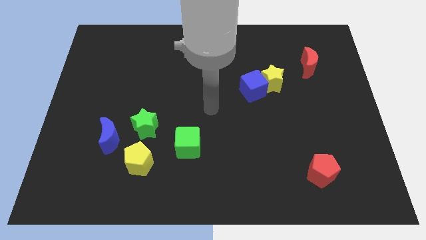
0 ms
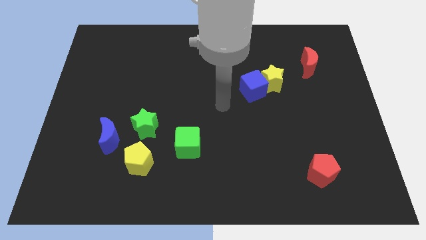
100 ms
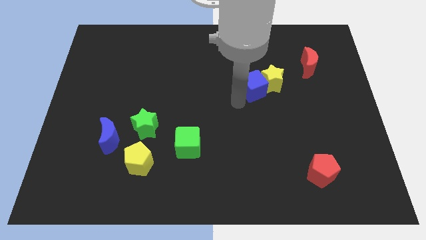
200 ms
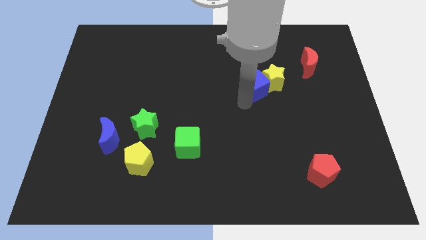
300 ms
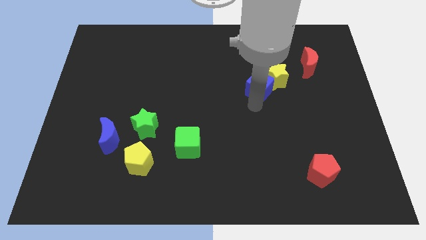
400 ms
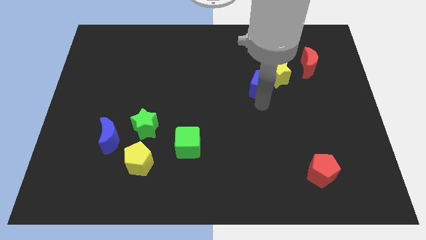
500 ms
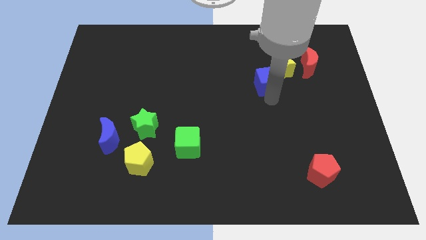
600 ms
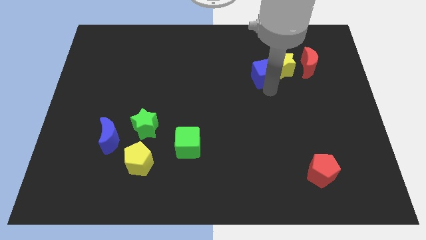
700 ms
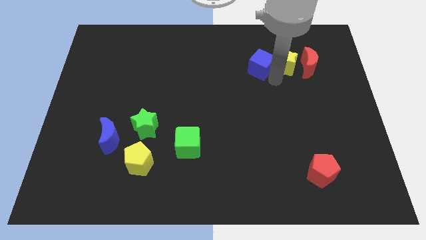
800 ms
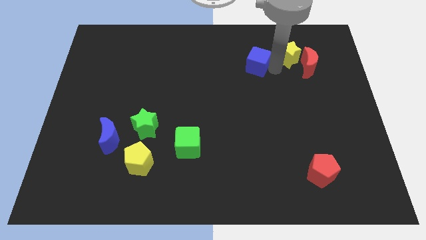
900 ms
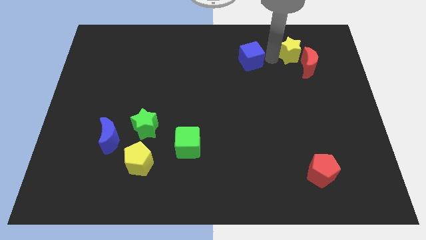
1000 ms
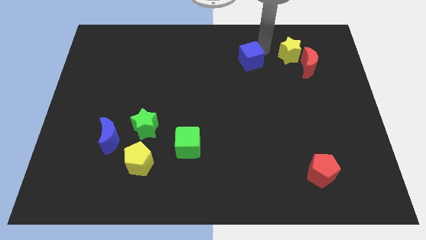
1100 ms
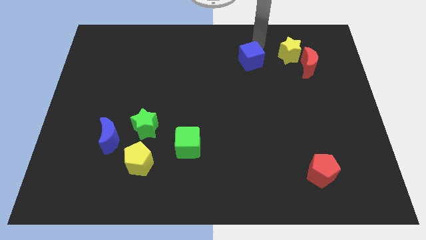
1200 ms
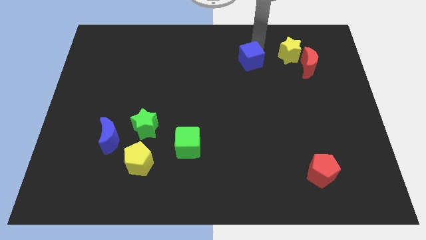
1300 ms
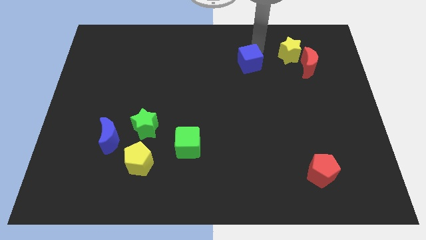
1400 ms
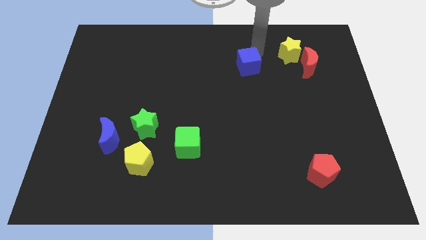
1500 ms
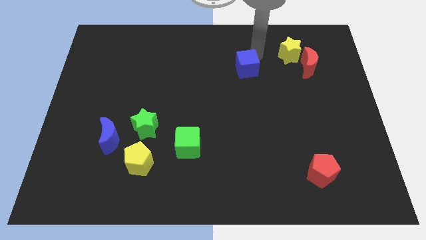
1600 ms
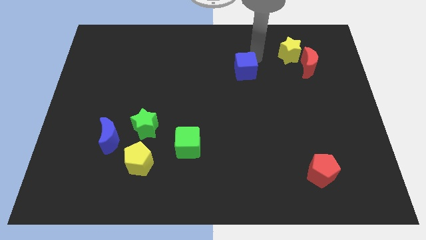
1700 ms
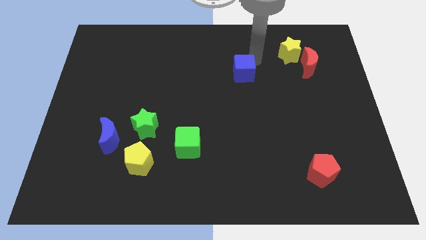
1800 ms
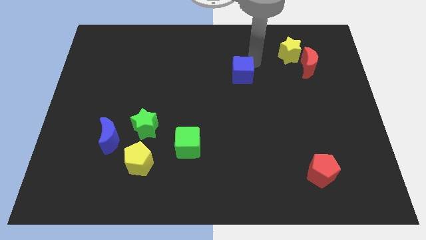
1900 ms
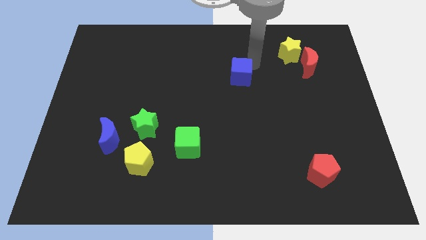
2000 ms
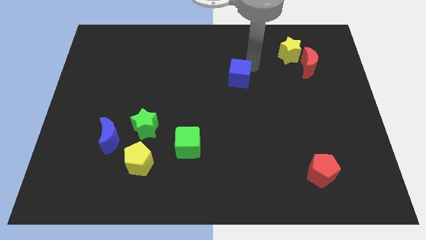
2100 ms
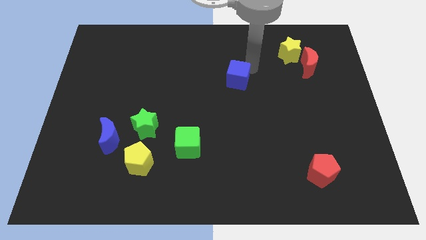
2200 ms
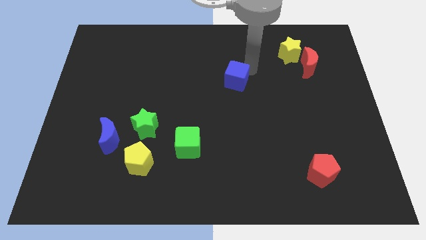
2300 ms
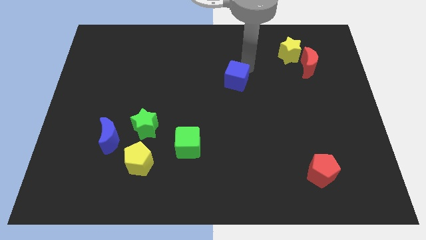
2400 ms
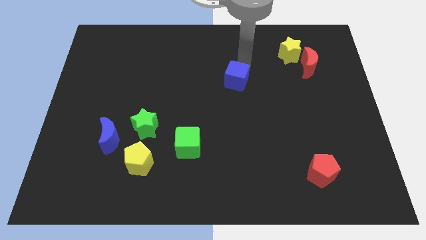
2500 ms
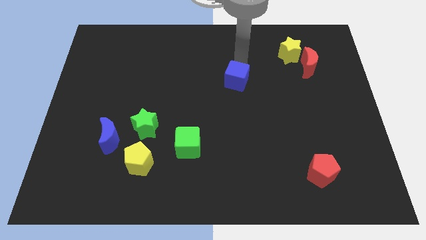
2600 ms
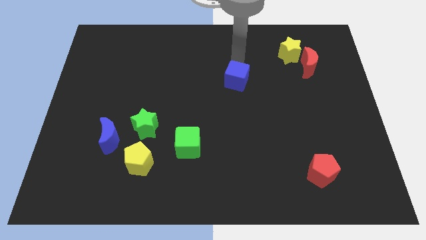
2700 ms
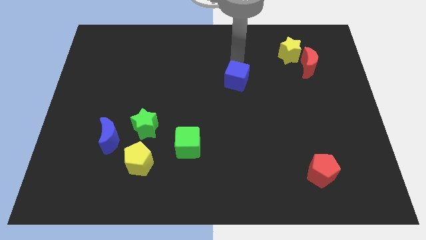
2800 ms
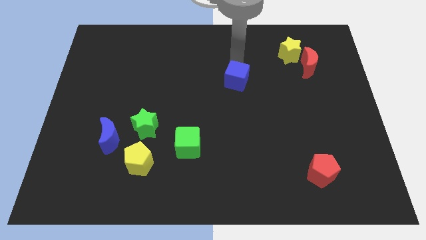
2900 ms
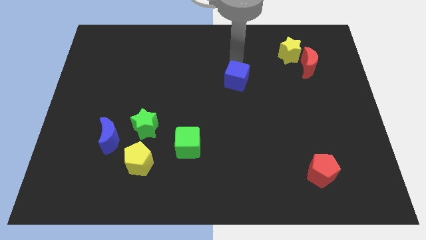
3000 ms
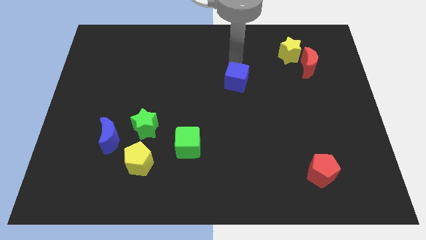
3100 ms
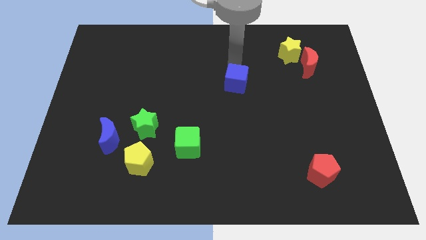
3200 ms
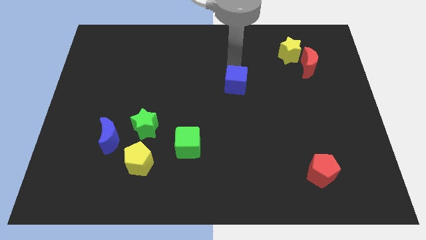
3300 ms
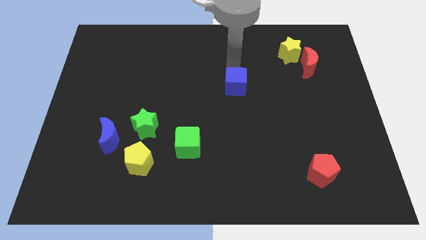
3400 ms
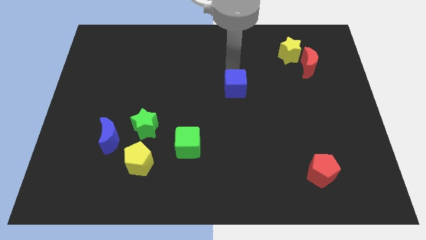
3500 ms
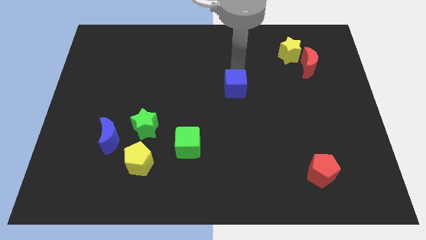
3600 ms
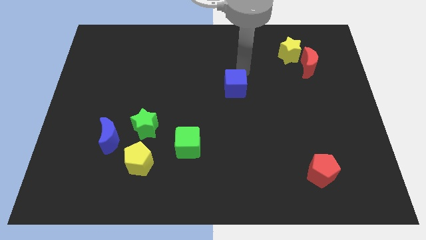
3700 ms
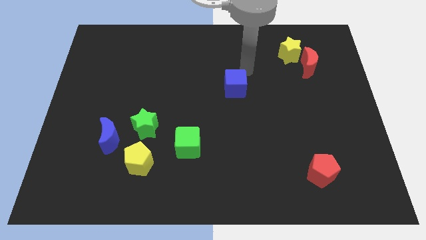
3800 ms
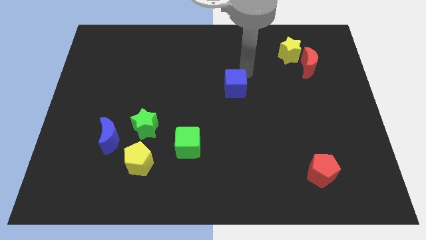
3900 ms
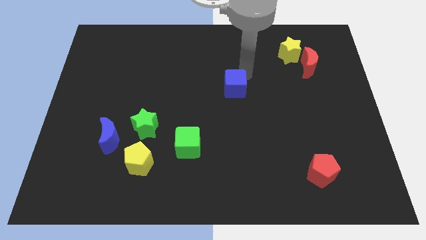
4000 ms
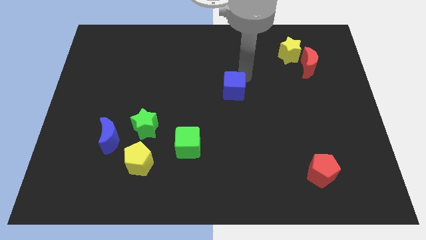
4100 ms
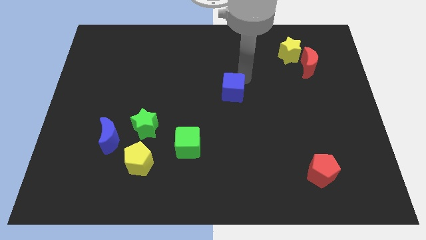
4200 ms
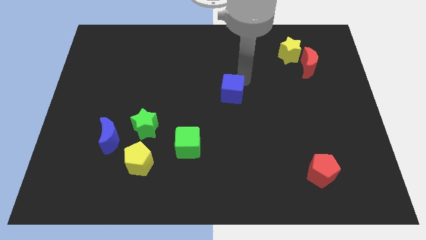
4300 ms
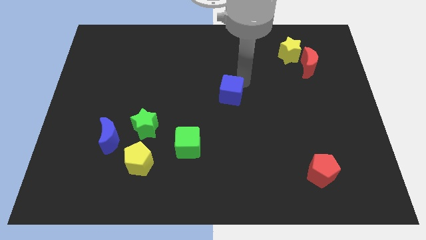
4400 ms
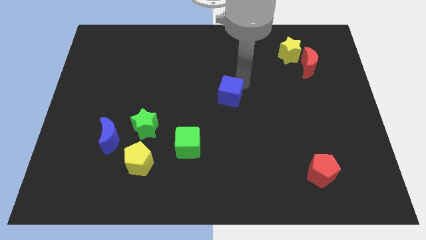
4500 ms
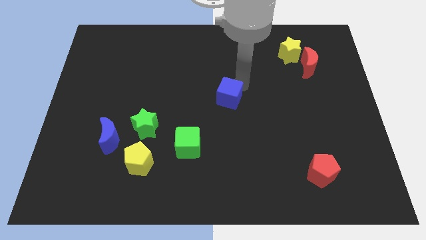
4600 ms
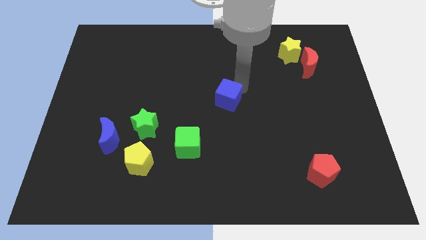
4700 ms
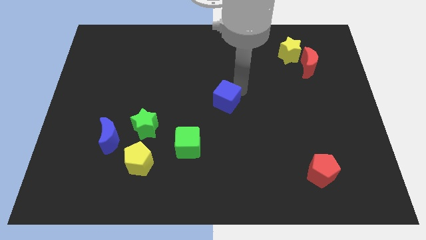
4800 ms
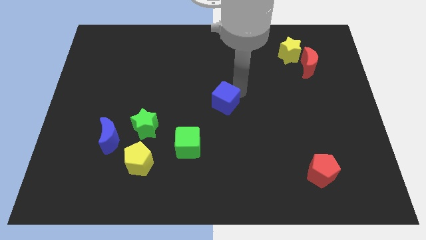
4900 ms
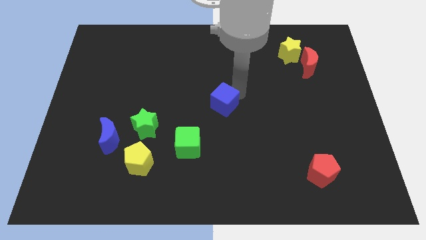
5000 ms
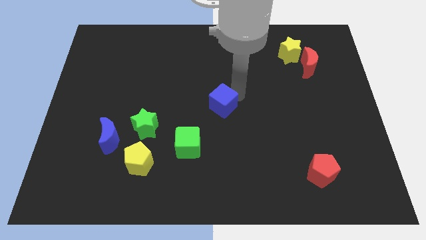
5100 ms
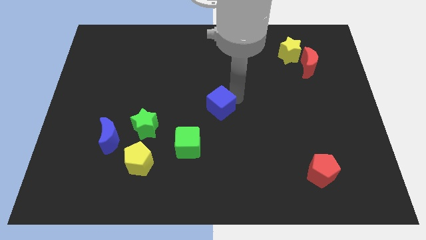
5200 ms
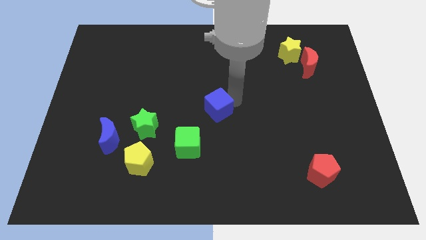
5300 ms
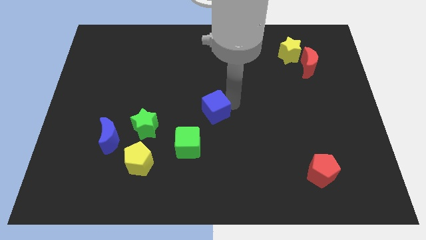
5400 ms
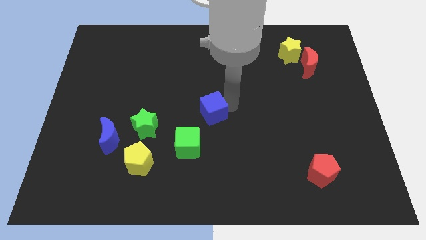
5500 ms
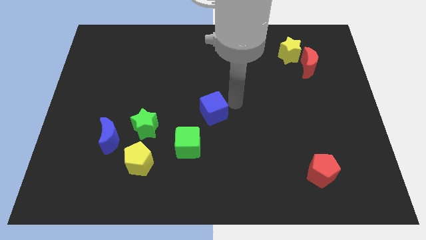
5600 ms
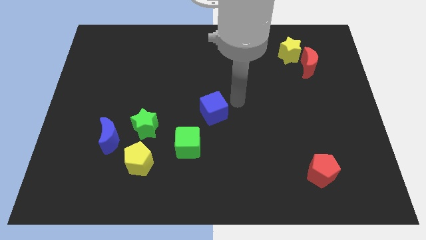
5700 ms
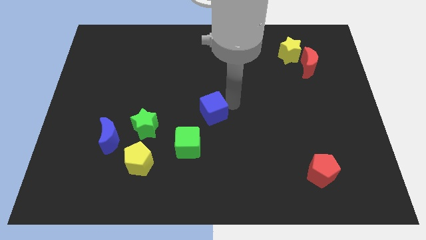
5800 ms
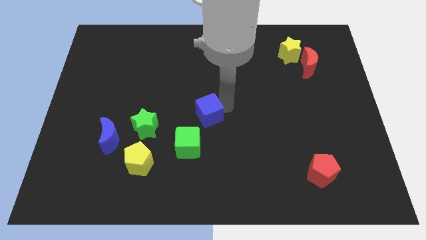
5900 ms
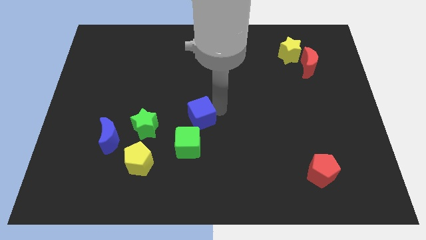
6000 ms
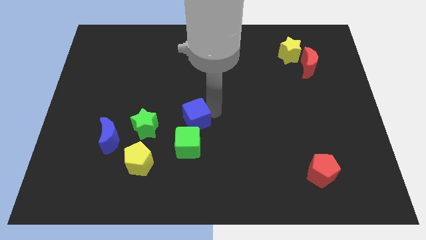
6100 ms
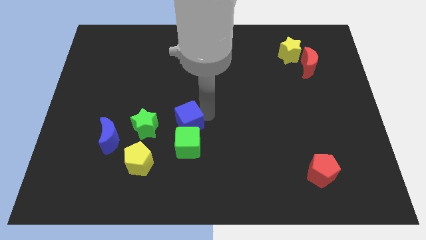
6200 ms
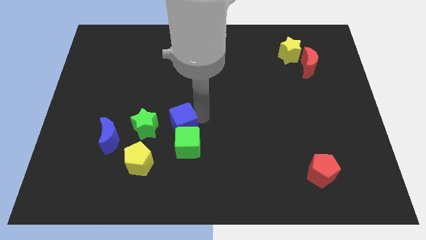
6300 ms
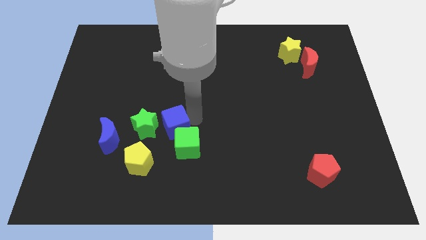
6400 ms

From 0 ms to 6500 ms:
put the blue cube just right of the blue moon

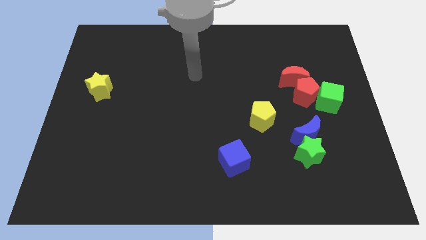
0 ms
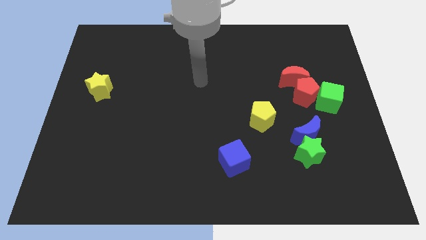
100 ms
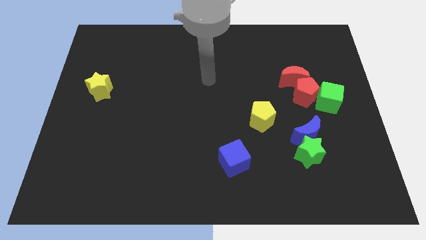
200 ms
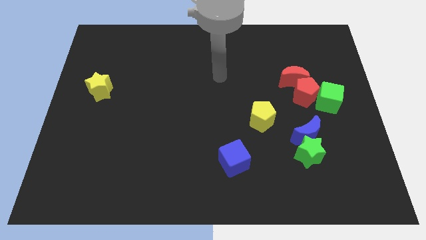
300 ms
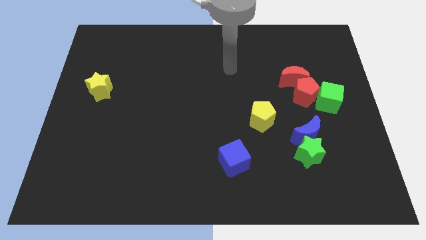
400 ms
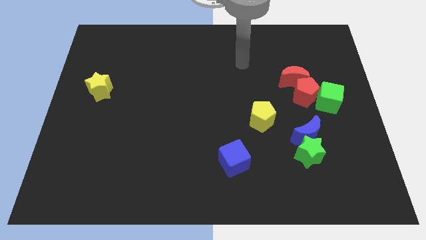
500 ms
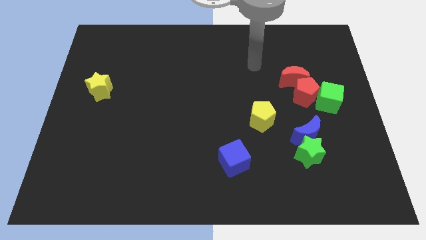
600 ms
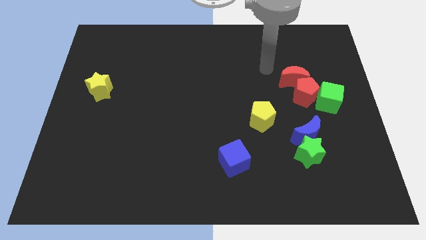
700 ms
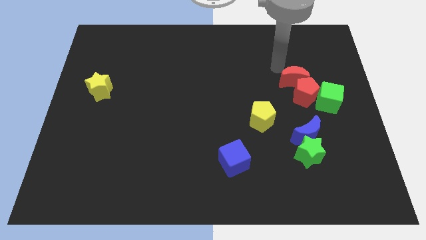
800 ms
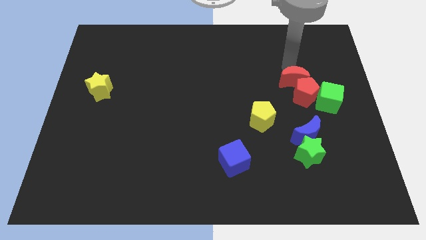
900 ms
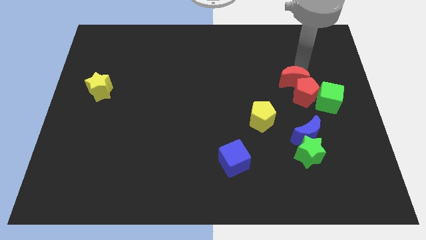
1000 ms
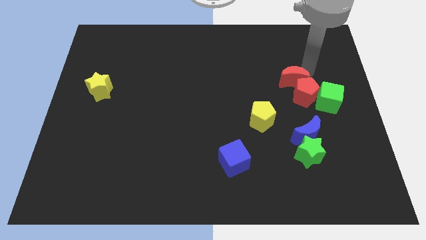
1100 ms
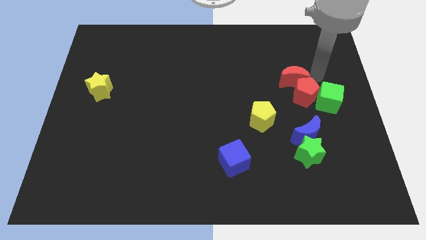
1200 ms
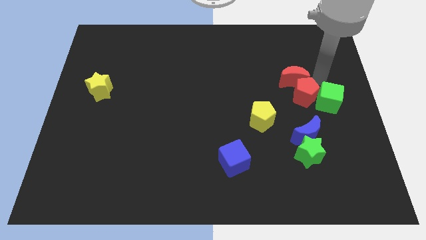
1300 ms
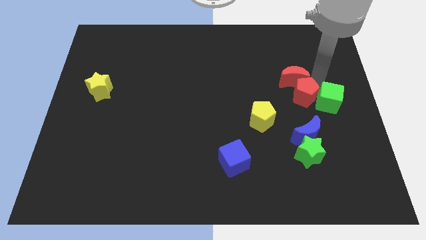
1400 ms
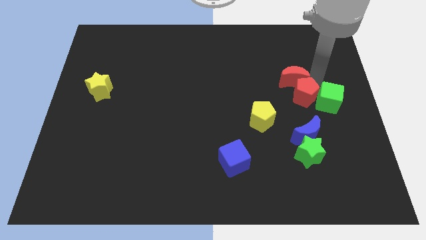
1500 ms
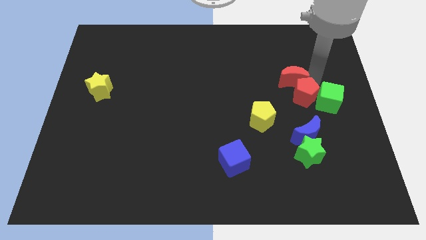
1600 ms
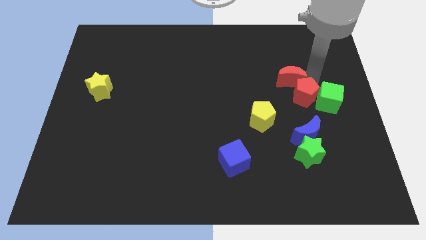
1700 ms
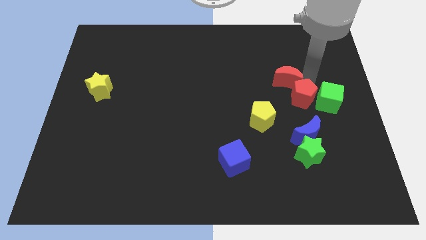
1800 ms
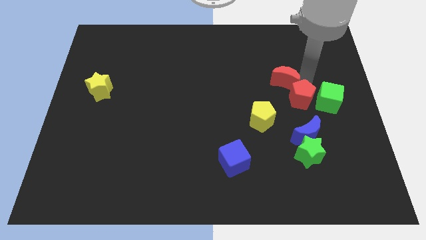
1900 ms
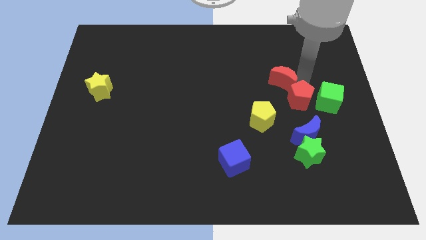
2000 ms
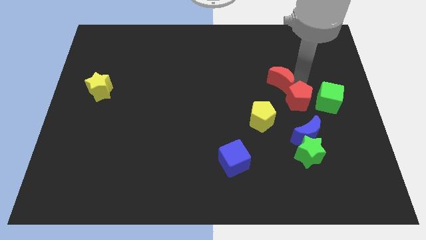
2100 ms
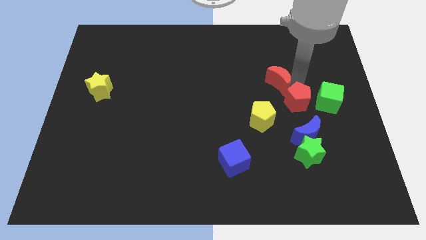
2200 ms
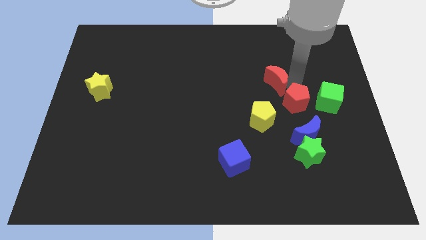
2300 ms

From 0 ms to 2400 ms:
push the red moon above the yellow pentagon
